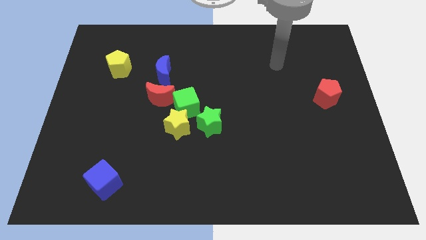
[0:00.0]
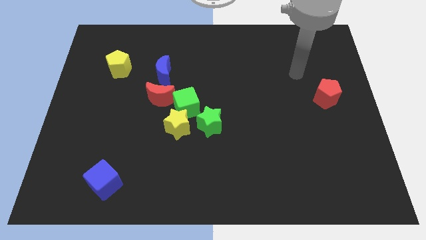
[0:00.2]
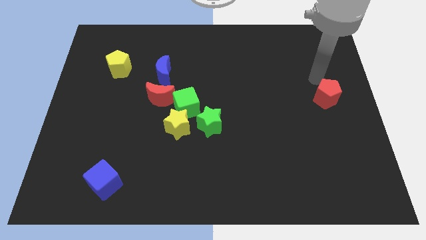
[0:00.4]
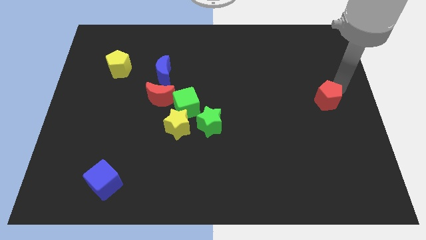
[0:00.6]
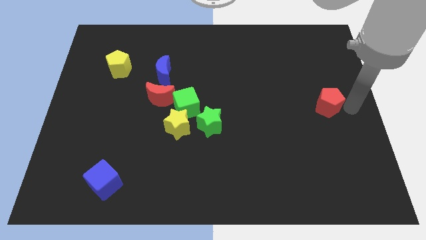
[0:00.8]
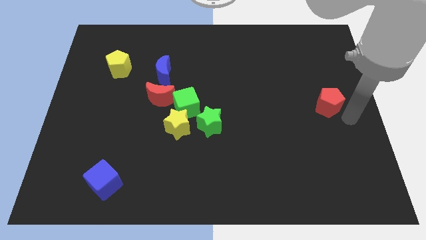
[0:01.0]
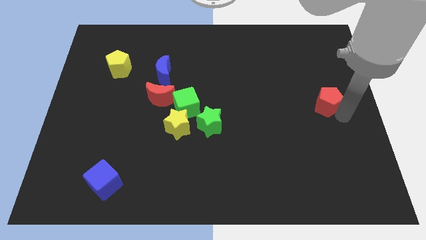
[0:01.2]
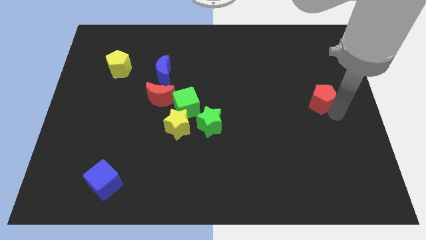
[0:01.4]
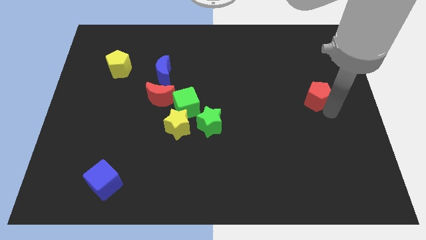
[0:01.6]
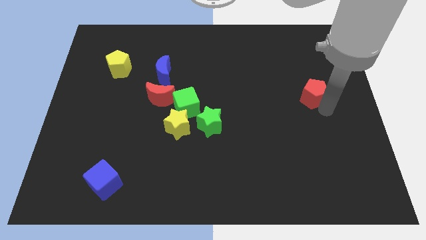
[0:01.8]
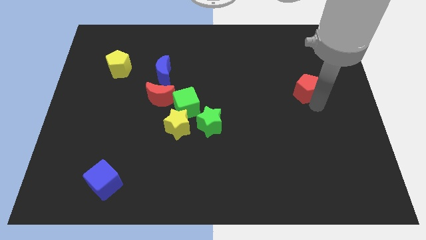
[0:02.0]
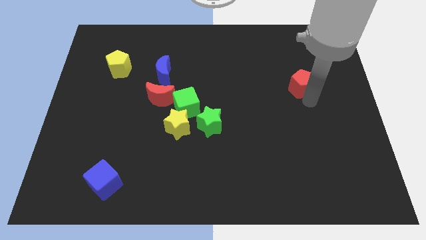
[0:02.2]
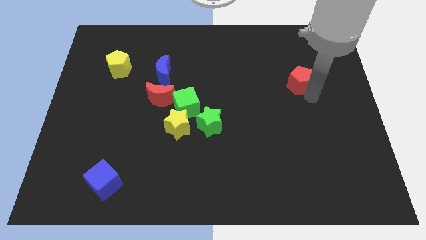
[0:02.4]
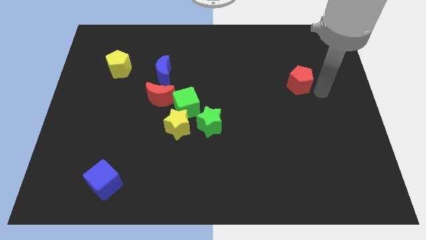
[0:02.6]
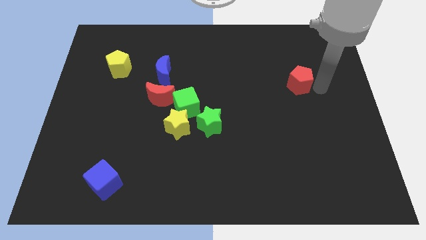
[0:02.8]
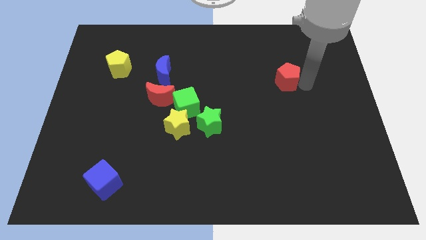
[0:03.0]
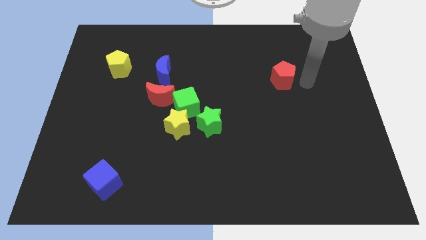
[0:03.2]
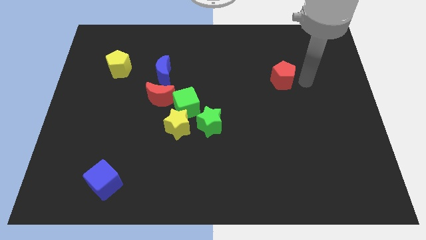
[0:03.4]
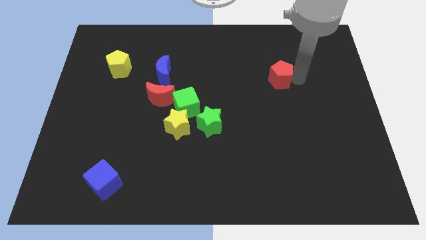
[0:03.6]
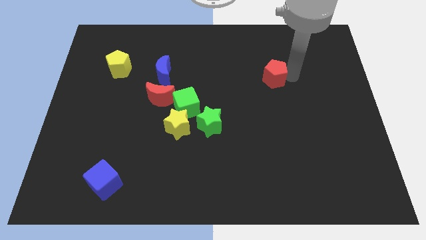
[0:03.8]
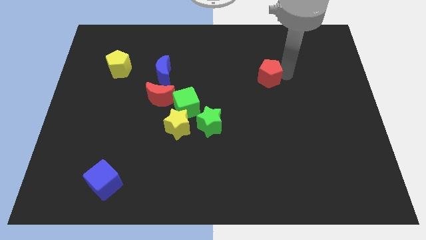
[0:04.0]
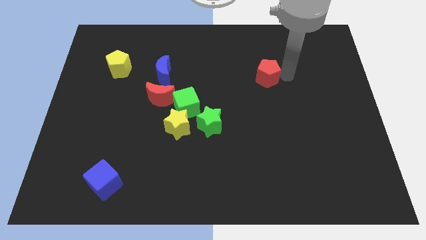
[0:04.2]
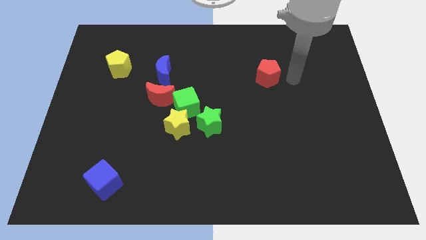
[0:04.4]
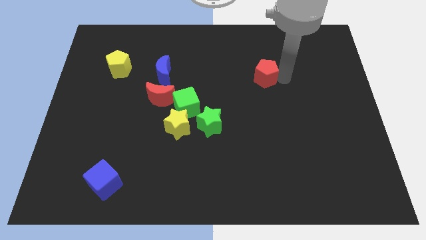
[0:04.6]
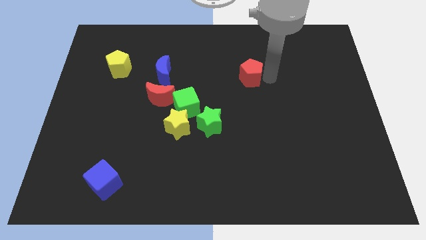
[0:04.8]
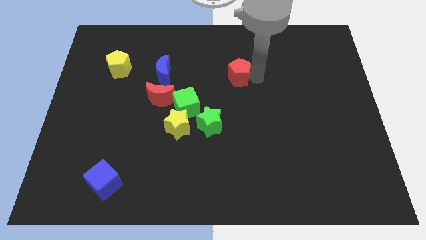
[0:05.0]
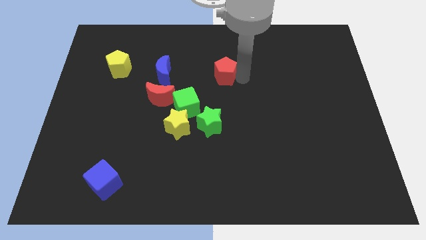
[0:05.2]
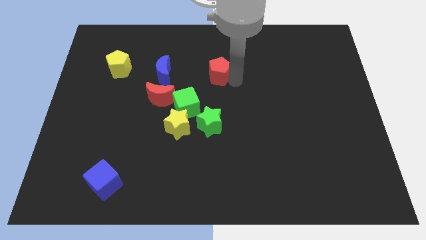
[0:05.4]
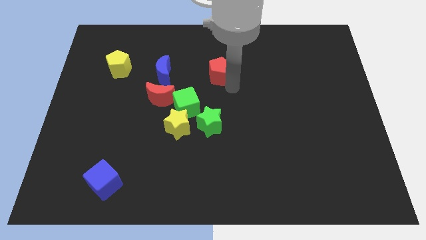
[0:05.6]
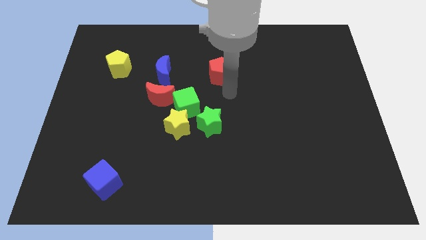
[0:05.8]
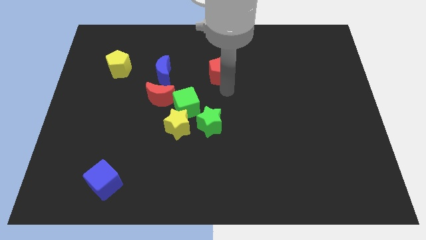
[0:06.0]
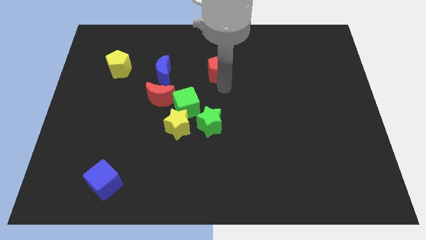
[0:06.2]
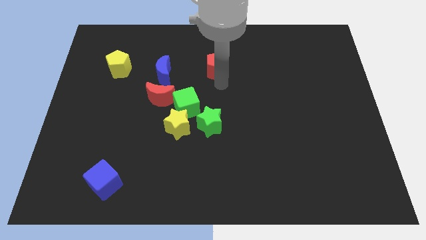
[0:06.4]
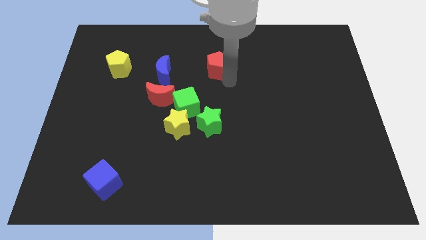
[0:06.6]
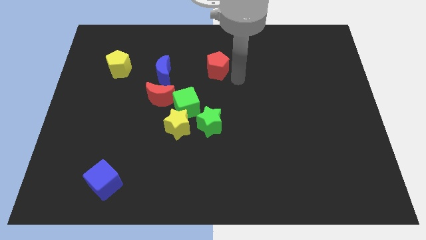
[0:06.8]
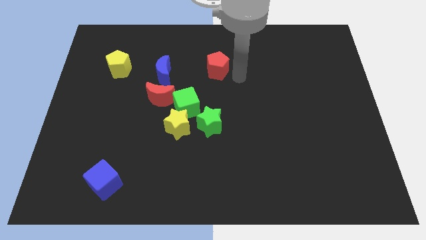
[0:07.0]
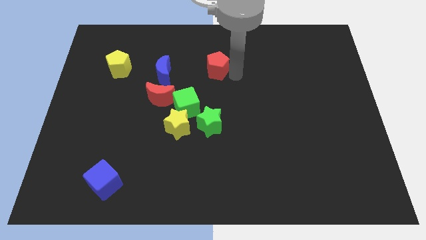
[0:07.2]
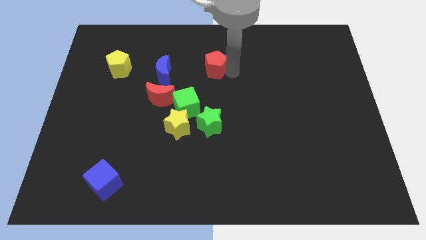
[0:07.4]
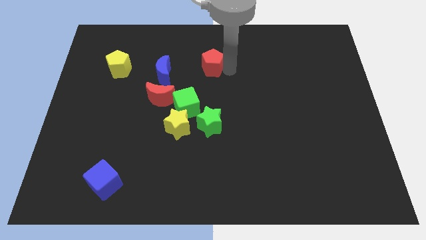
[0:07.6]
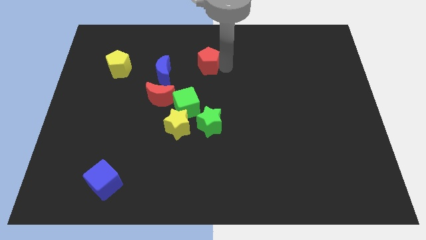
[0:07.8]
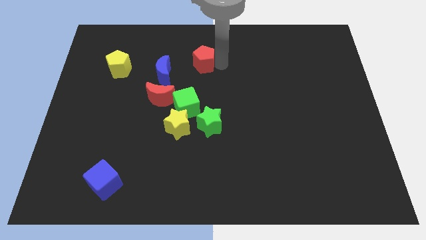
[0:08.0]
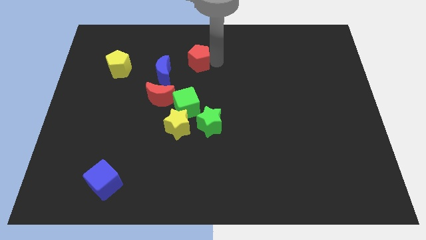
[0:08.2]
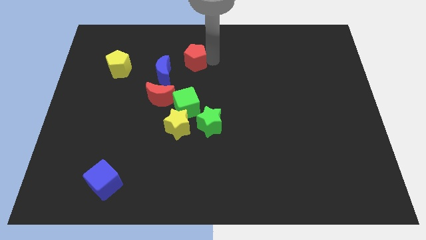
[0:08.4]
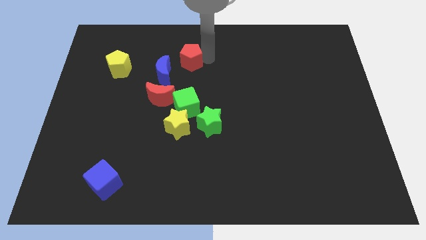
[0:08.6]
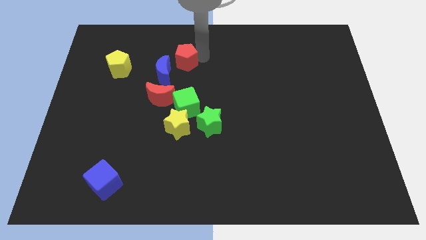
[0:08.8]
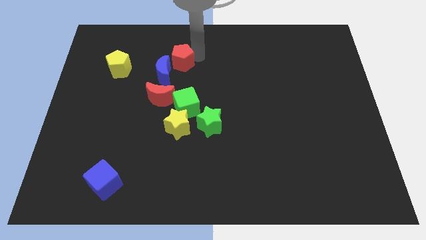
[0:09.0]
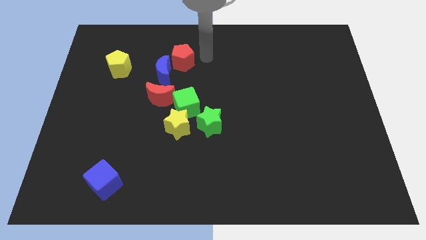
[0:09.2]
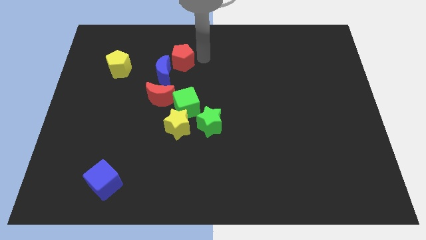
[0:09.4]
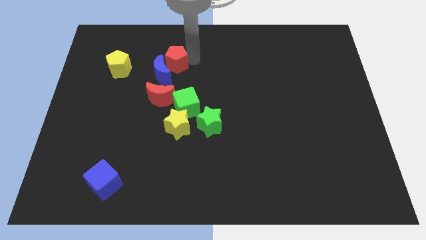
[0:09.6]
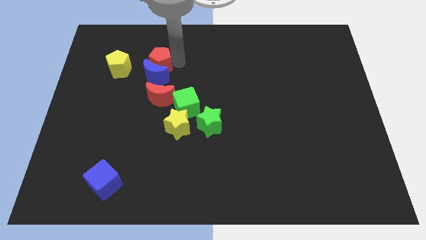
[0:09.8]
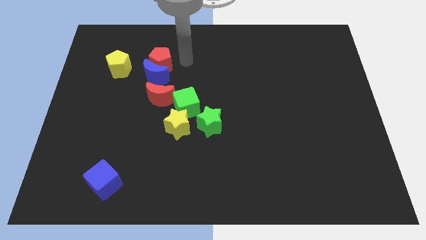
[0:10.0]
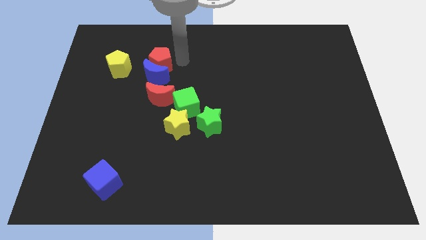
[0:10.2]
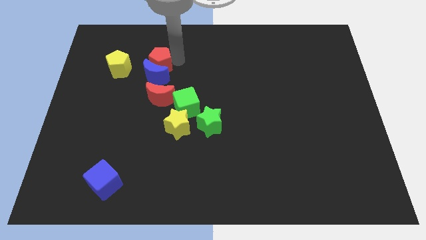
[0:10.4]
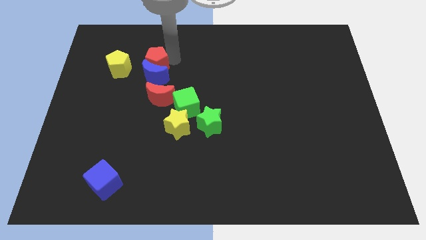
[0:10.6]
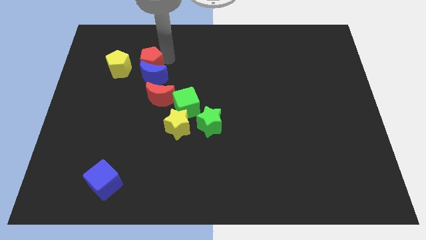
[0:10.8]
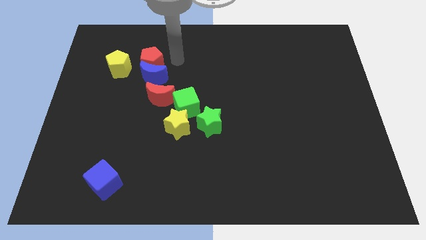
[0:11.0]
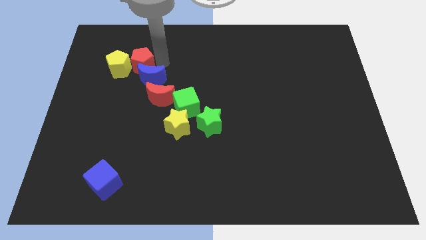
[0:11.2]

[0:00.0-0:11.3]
slide the red pentagon close to the yellow pentagon

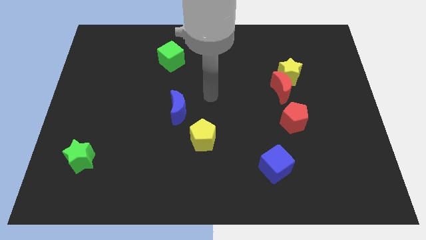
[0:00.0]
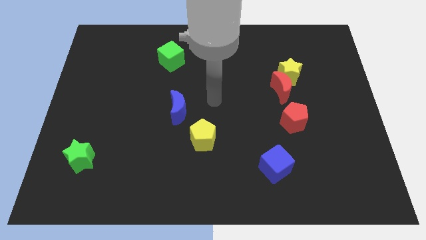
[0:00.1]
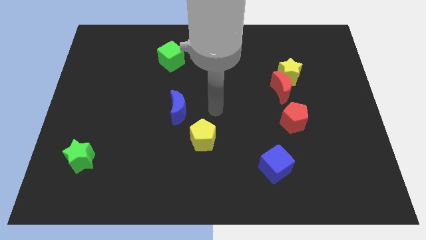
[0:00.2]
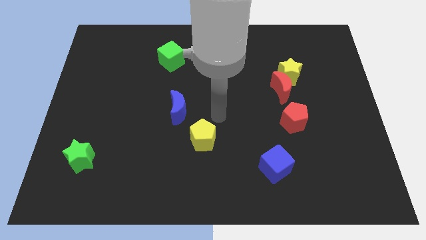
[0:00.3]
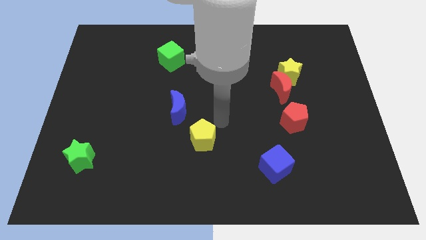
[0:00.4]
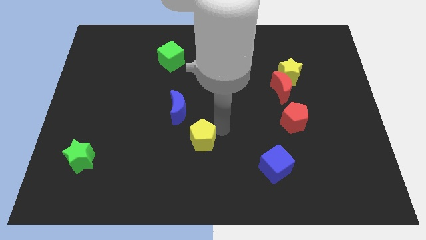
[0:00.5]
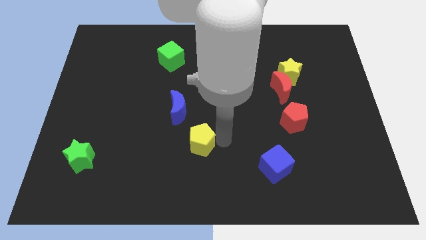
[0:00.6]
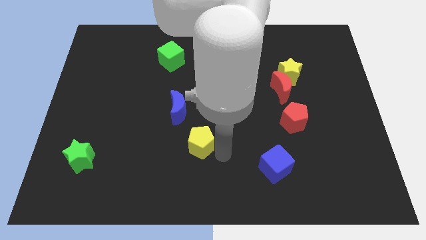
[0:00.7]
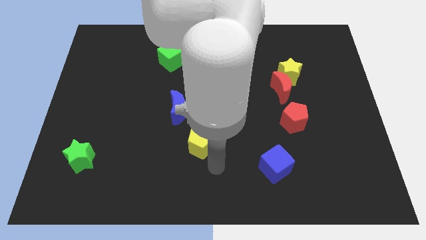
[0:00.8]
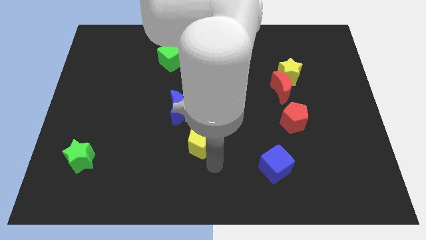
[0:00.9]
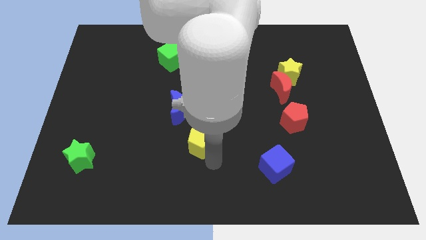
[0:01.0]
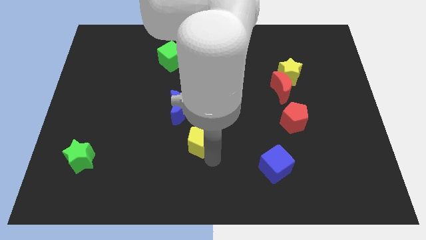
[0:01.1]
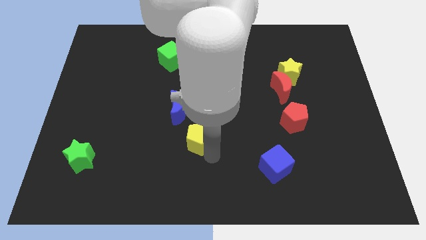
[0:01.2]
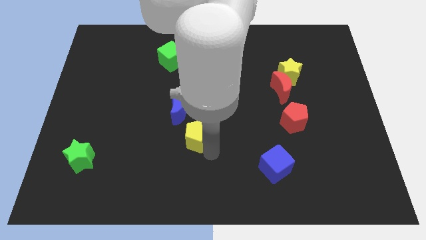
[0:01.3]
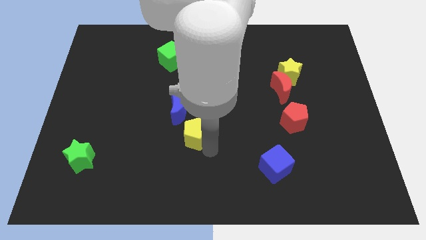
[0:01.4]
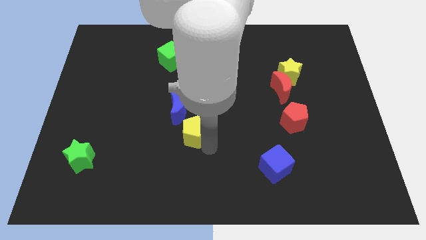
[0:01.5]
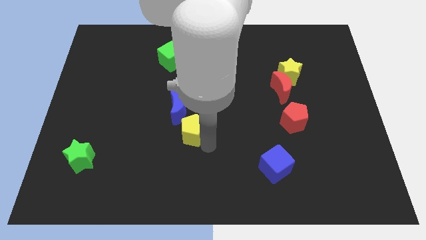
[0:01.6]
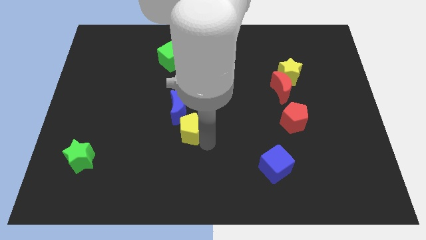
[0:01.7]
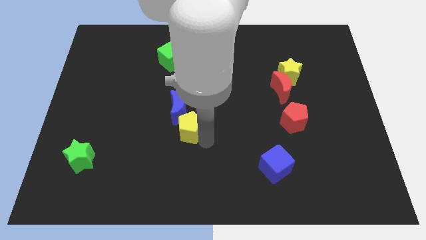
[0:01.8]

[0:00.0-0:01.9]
slide the yellow pentagon towards the blue moon

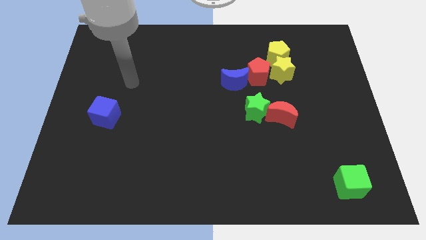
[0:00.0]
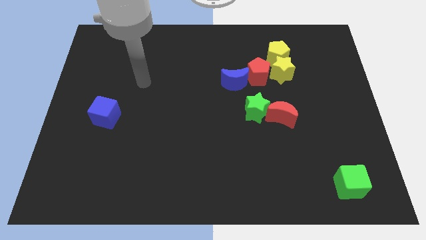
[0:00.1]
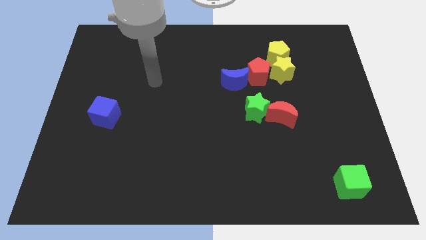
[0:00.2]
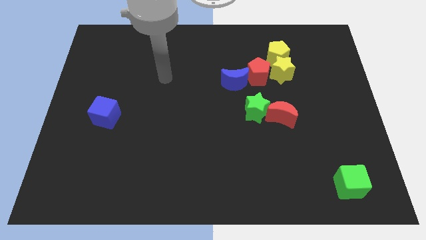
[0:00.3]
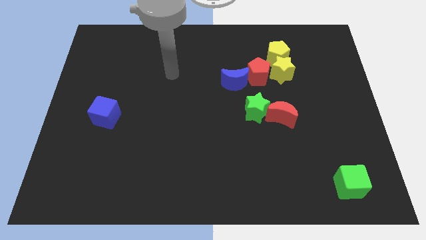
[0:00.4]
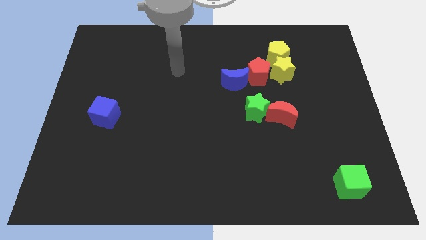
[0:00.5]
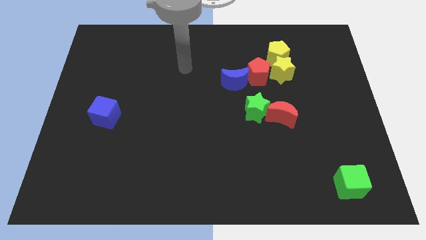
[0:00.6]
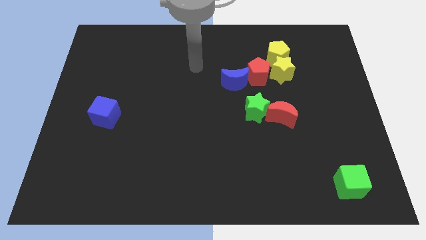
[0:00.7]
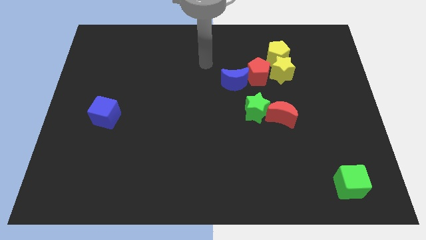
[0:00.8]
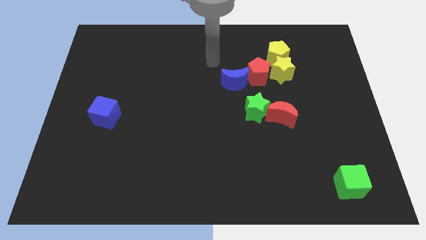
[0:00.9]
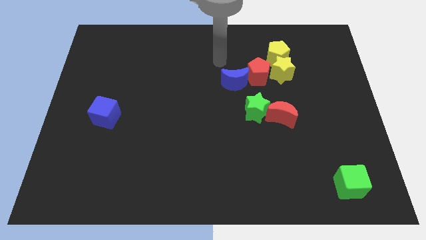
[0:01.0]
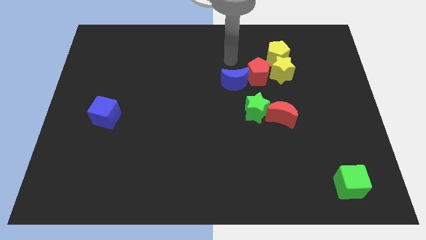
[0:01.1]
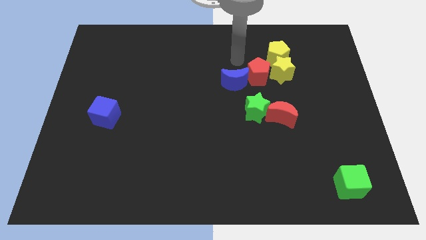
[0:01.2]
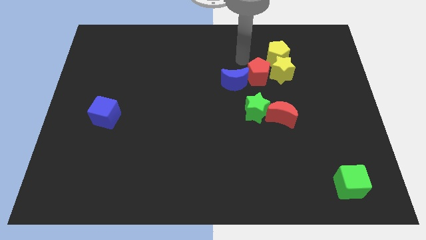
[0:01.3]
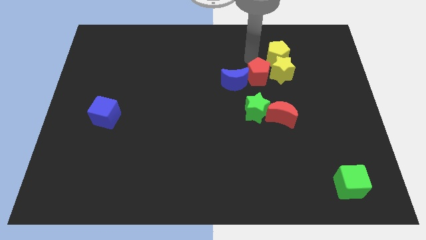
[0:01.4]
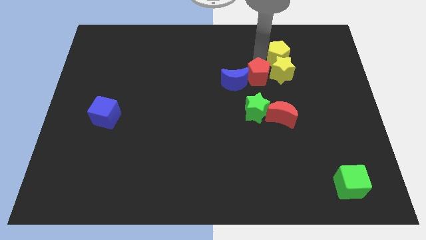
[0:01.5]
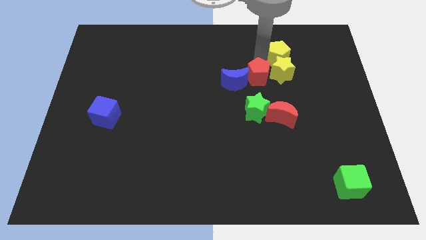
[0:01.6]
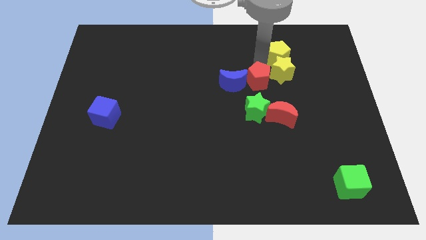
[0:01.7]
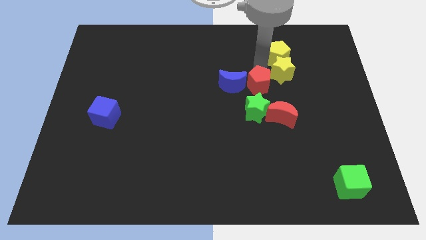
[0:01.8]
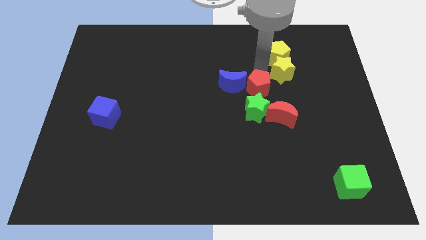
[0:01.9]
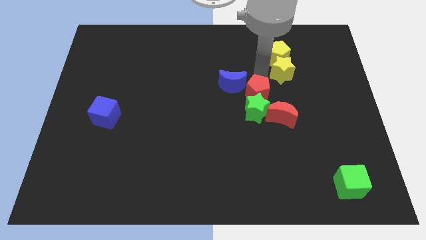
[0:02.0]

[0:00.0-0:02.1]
put the red pentagon next to the green star
